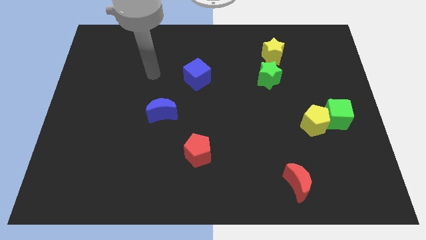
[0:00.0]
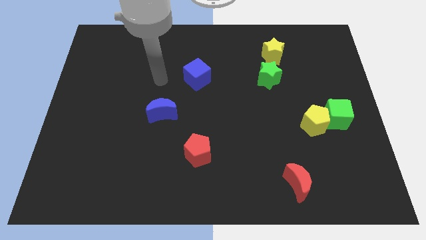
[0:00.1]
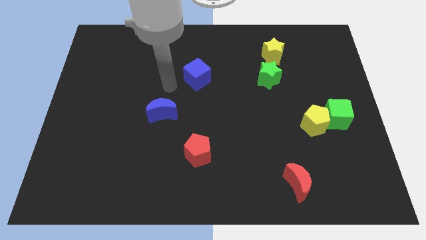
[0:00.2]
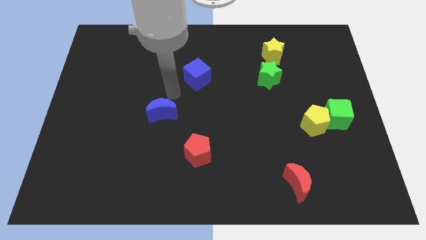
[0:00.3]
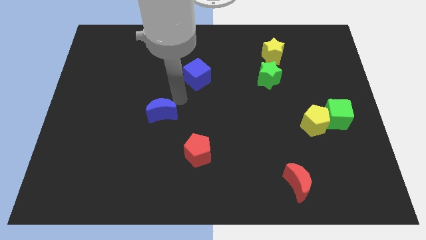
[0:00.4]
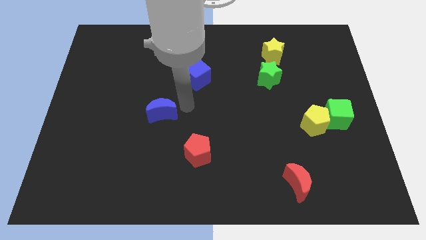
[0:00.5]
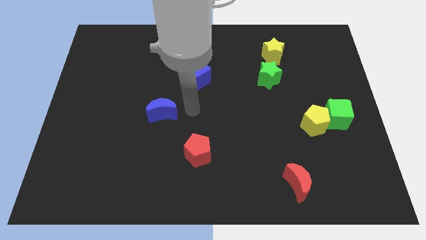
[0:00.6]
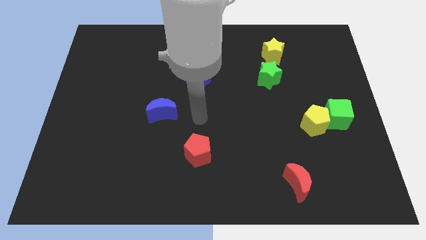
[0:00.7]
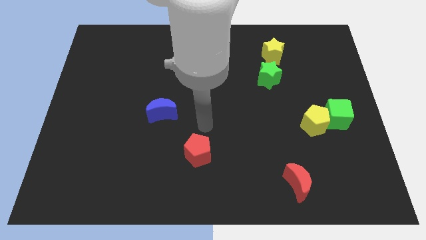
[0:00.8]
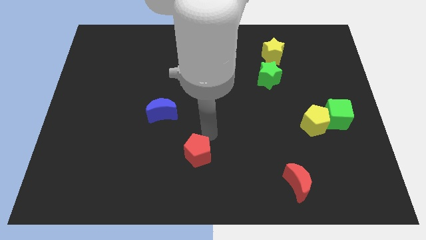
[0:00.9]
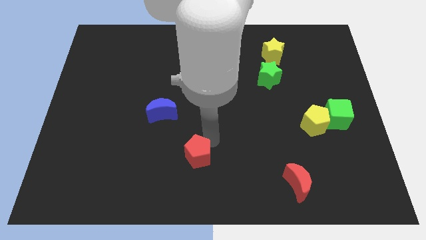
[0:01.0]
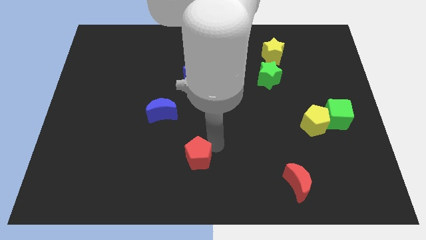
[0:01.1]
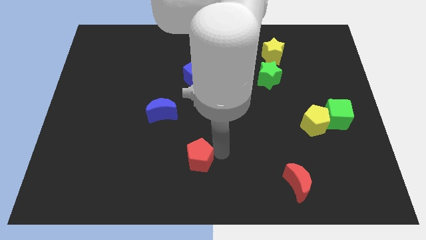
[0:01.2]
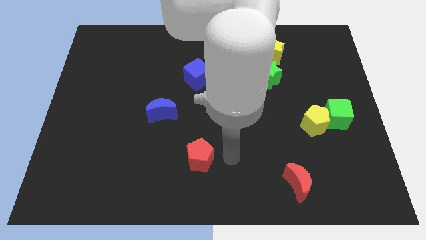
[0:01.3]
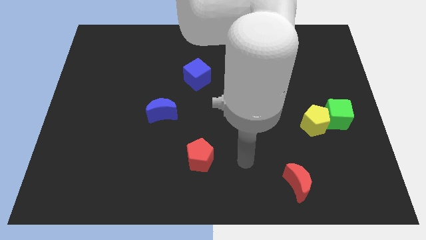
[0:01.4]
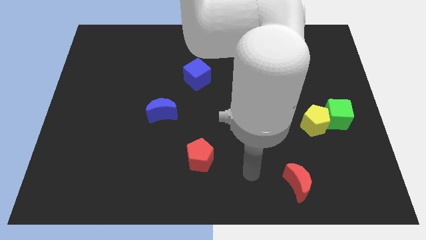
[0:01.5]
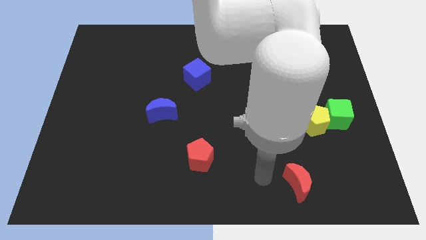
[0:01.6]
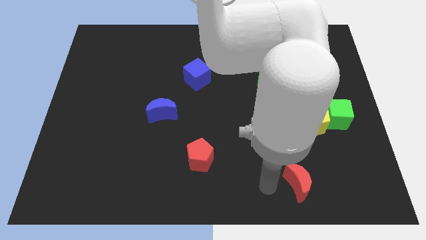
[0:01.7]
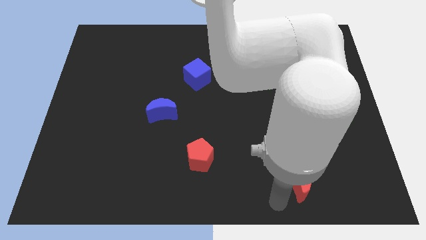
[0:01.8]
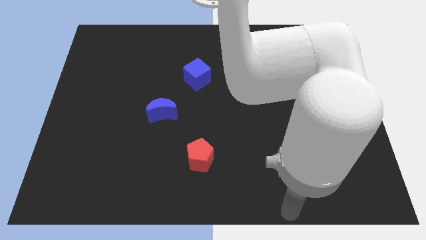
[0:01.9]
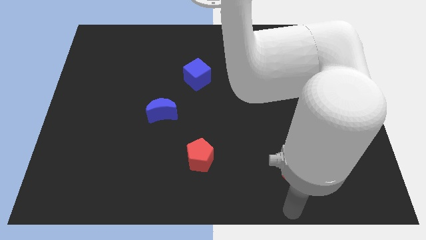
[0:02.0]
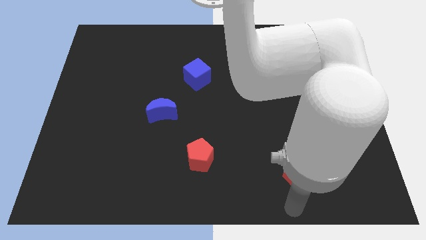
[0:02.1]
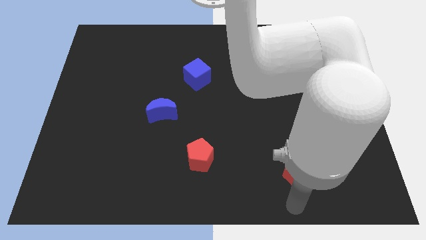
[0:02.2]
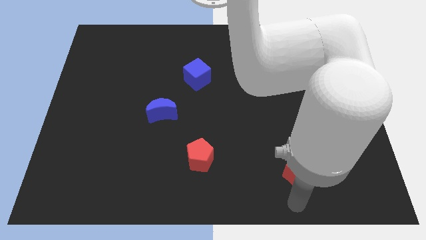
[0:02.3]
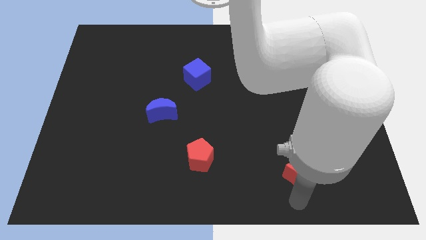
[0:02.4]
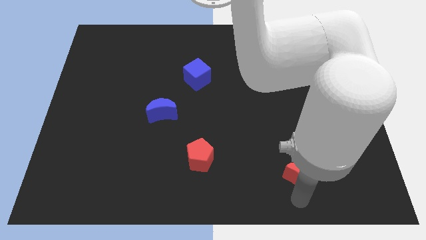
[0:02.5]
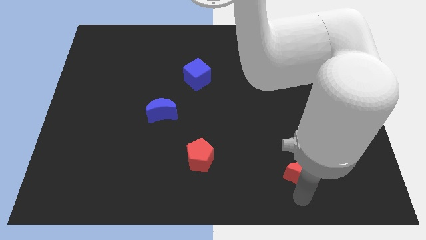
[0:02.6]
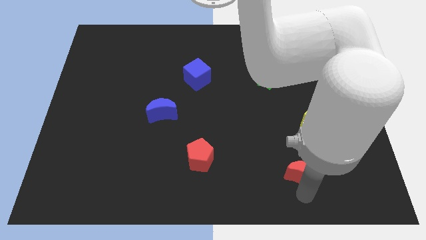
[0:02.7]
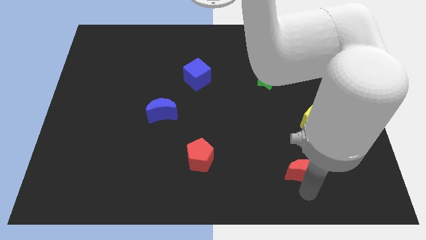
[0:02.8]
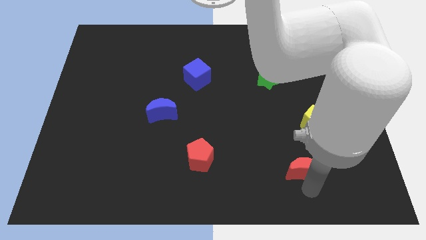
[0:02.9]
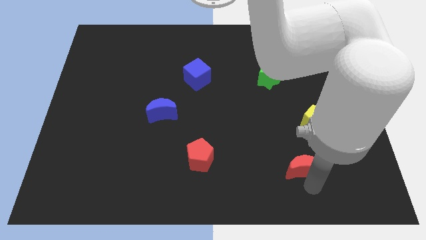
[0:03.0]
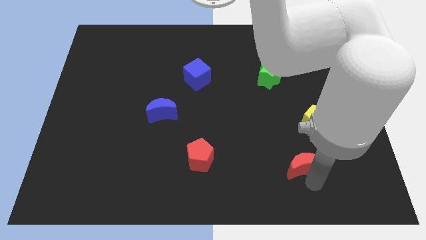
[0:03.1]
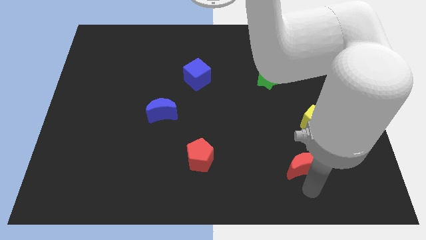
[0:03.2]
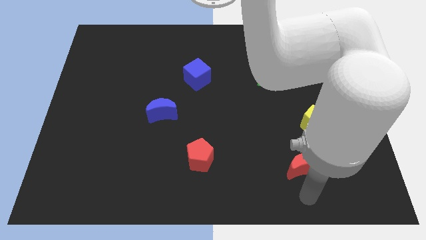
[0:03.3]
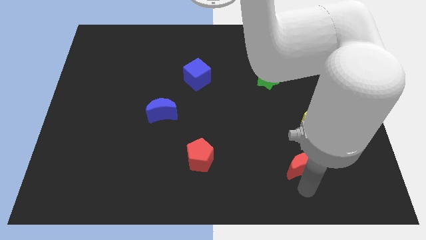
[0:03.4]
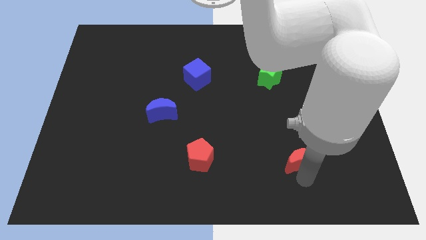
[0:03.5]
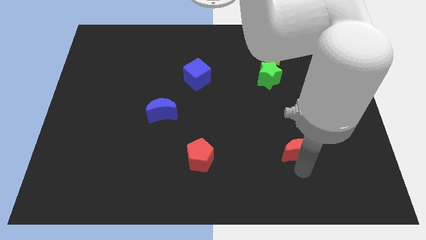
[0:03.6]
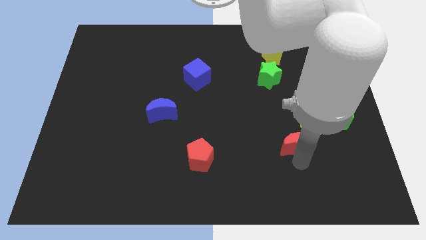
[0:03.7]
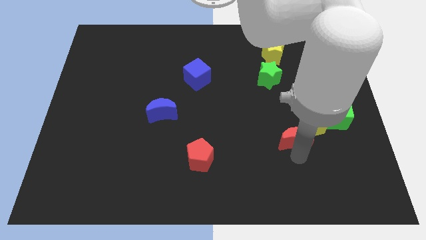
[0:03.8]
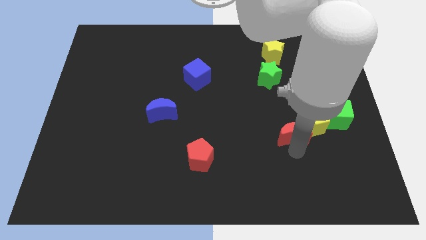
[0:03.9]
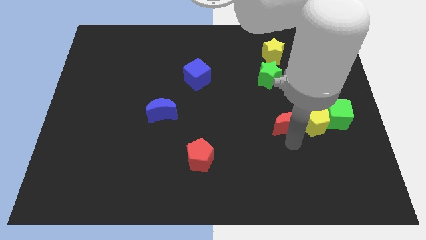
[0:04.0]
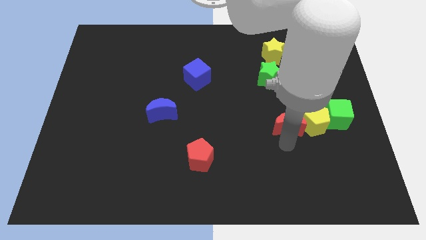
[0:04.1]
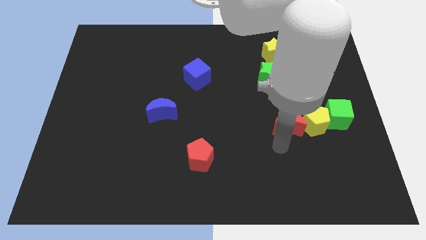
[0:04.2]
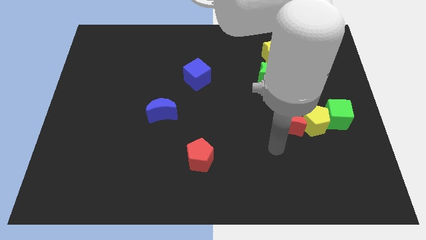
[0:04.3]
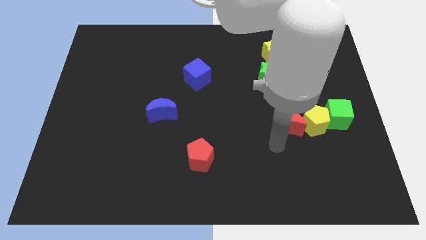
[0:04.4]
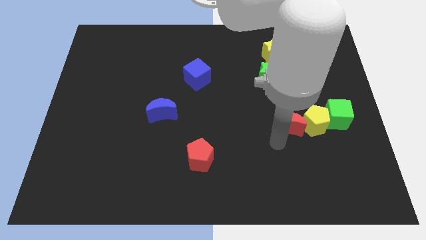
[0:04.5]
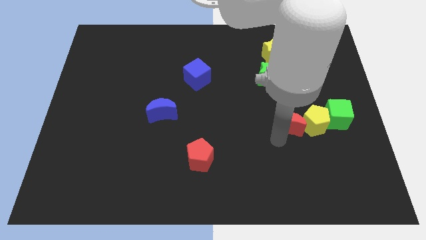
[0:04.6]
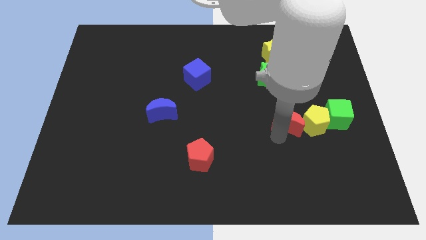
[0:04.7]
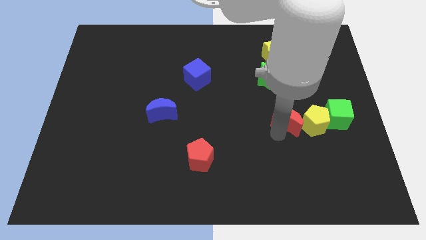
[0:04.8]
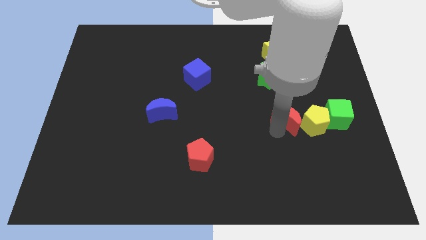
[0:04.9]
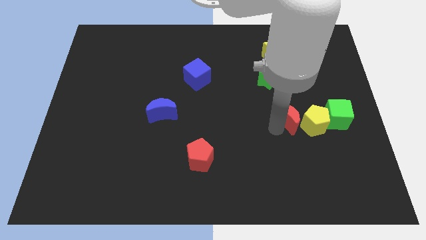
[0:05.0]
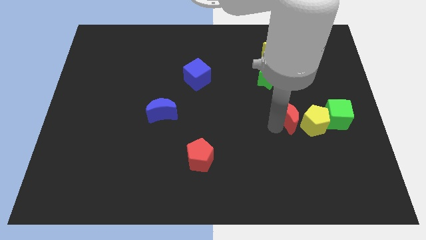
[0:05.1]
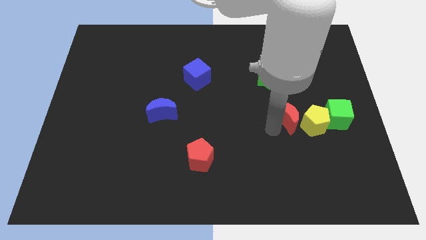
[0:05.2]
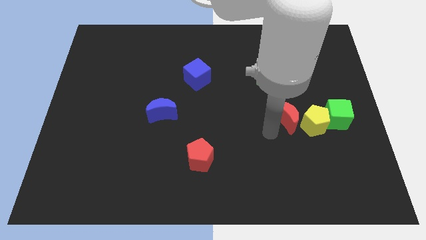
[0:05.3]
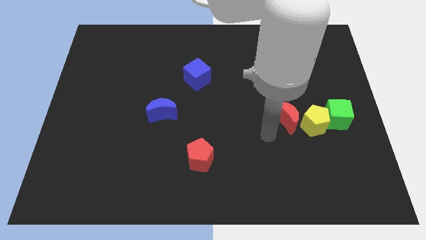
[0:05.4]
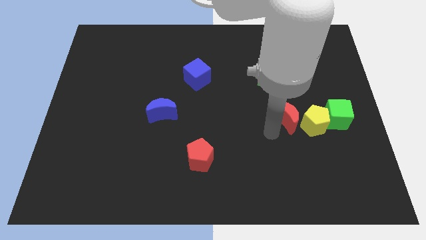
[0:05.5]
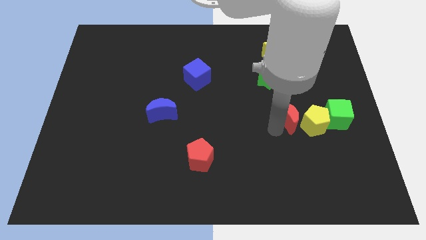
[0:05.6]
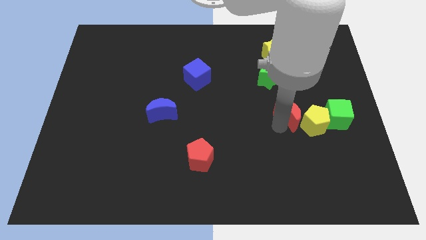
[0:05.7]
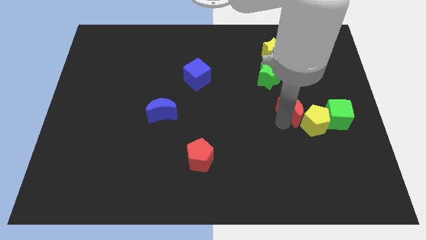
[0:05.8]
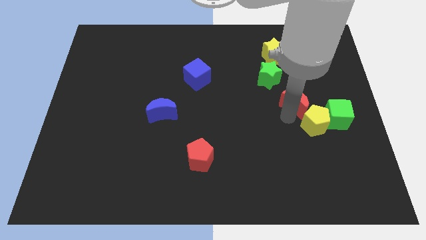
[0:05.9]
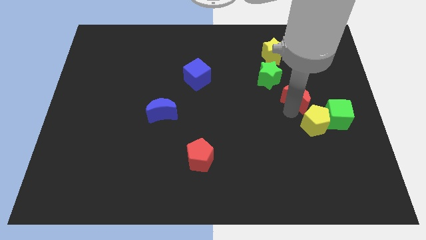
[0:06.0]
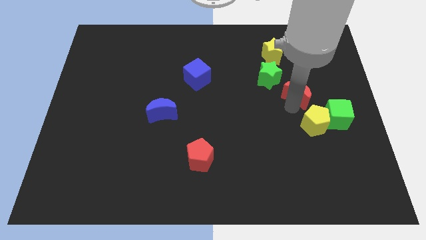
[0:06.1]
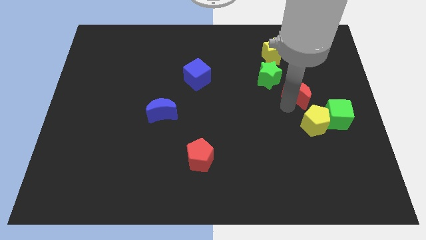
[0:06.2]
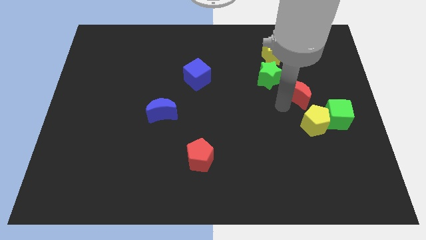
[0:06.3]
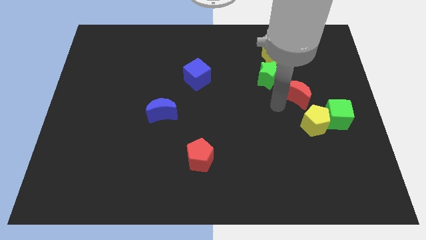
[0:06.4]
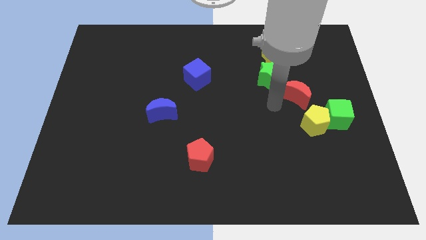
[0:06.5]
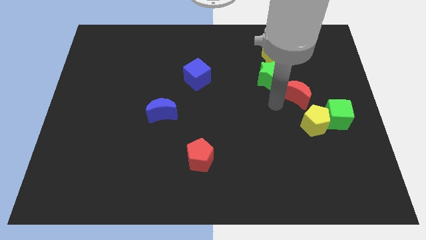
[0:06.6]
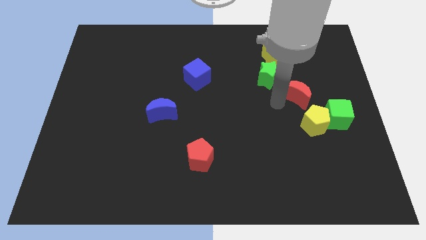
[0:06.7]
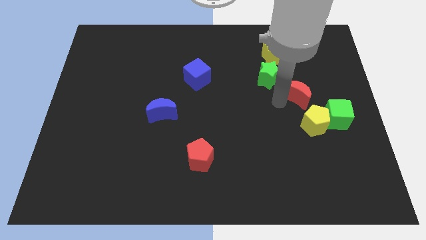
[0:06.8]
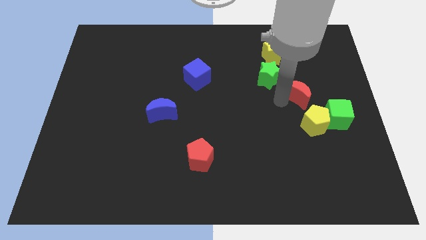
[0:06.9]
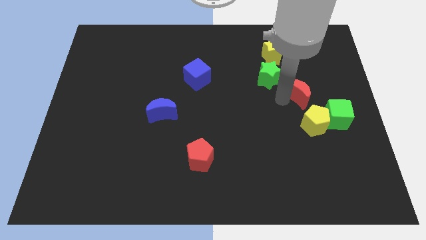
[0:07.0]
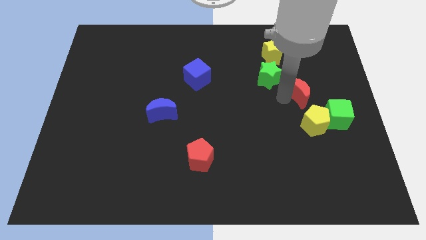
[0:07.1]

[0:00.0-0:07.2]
put the red moon to the right of the green star

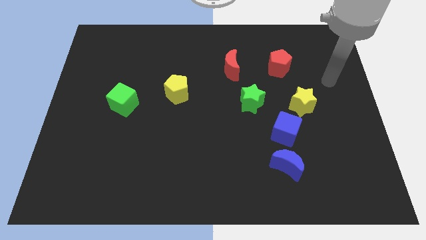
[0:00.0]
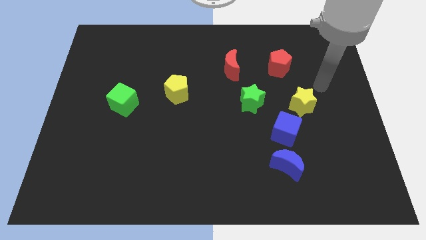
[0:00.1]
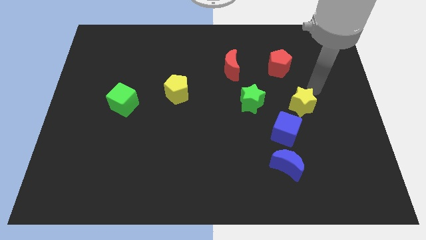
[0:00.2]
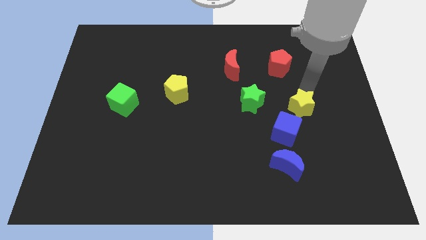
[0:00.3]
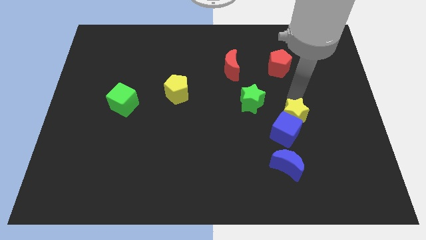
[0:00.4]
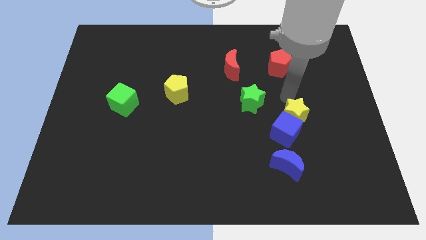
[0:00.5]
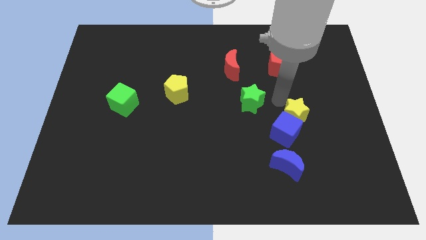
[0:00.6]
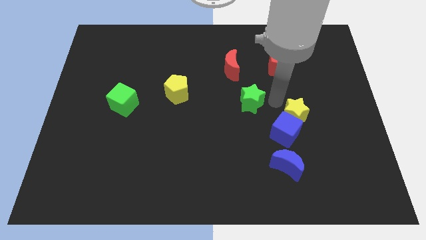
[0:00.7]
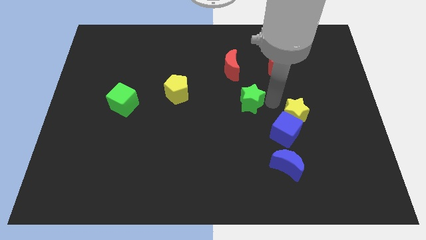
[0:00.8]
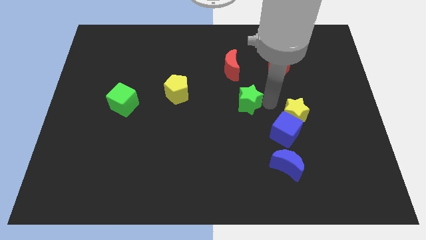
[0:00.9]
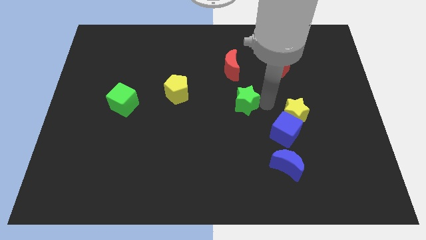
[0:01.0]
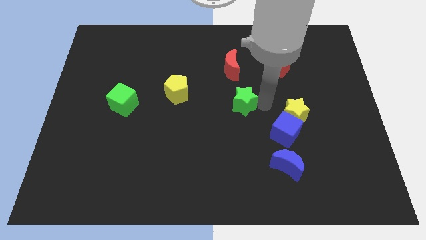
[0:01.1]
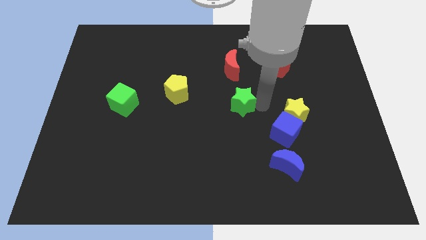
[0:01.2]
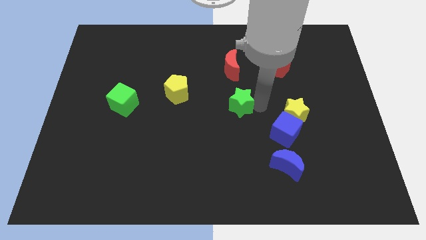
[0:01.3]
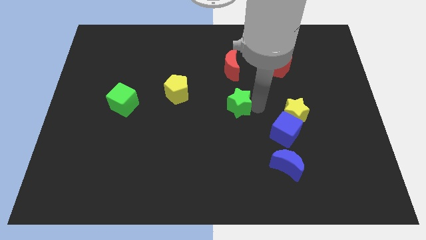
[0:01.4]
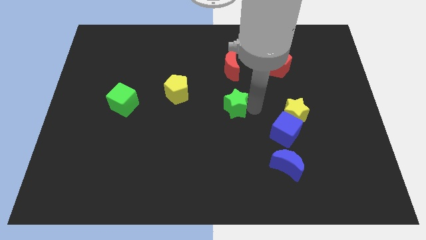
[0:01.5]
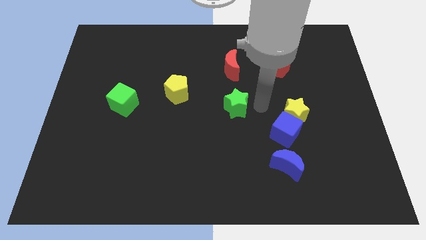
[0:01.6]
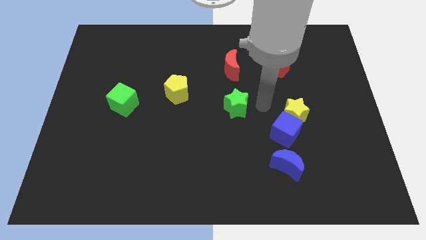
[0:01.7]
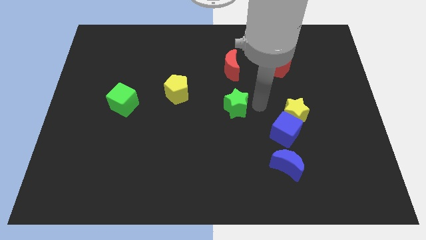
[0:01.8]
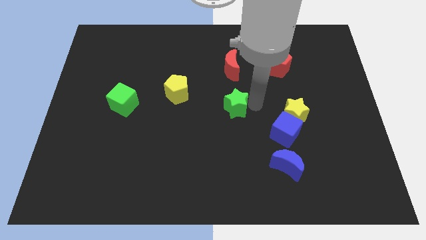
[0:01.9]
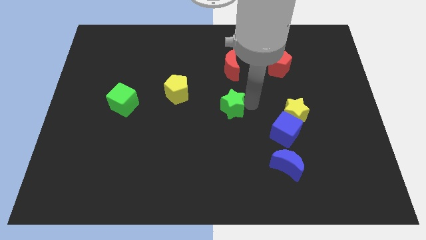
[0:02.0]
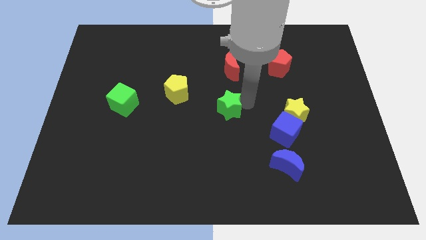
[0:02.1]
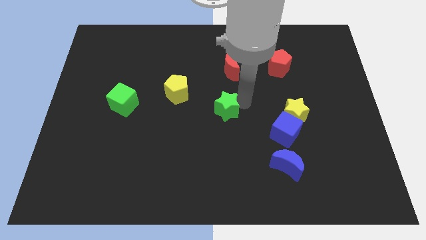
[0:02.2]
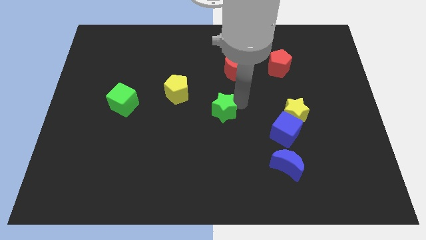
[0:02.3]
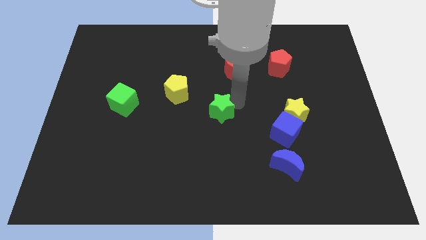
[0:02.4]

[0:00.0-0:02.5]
move the green star diagonally down and to the right of the yellow pentagon
